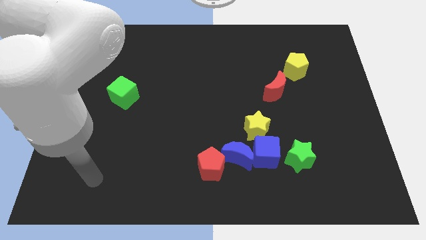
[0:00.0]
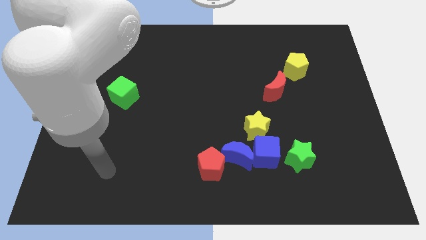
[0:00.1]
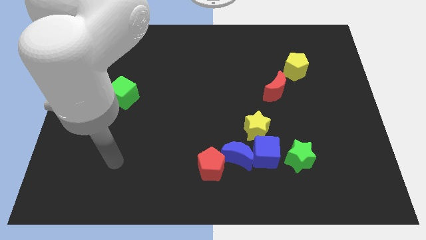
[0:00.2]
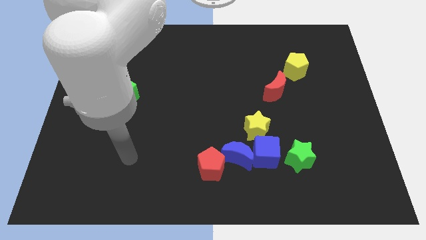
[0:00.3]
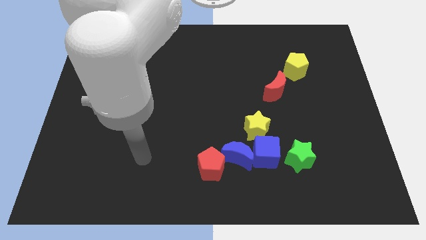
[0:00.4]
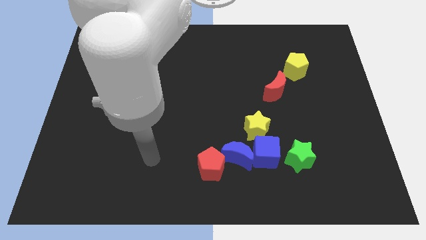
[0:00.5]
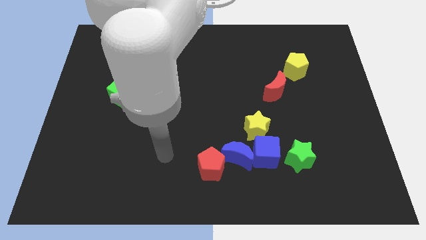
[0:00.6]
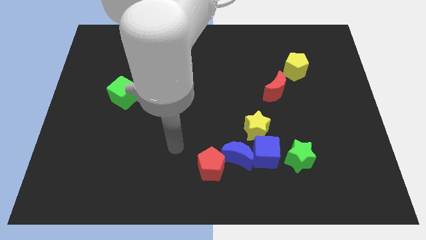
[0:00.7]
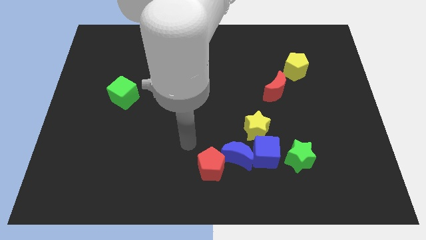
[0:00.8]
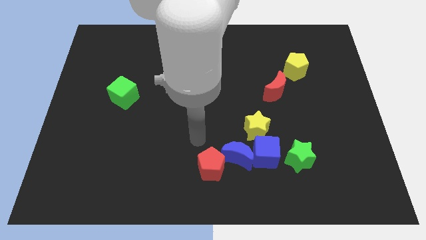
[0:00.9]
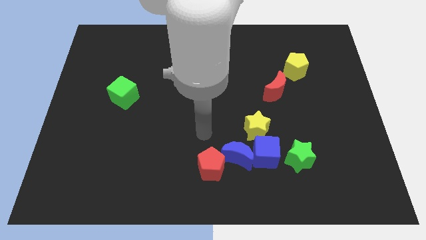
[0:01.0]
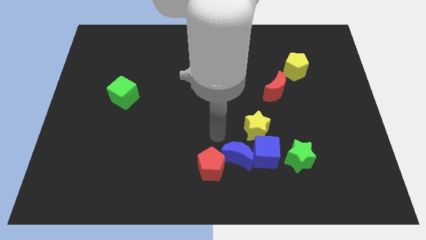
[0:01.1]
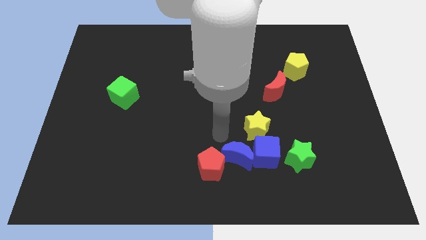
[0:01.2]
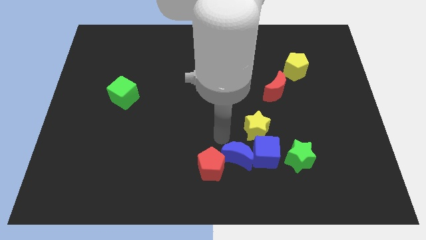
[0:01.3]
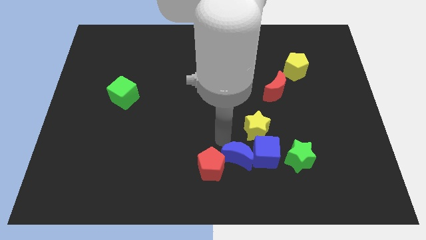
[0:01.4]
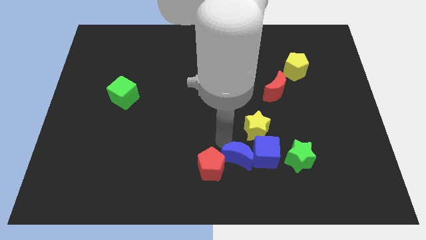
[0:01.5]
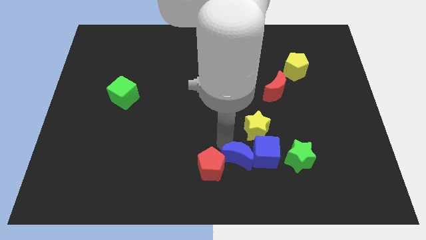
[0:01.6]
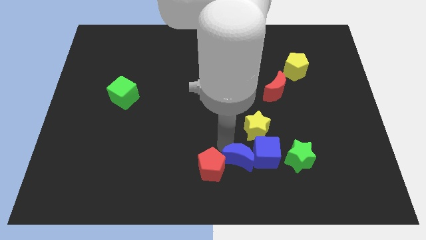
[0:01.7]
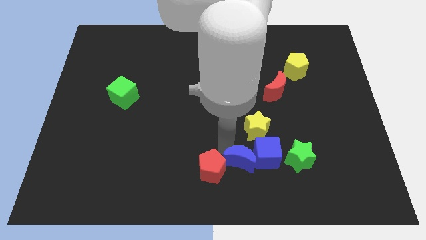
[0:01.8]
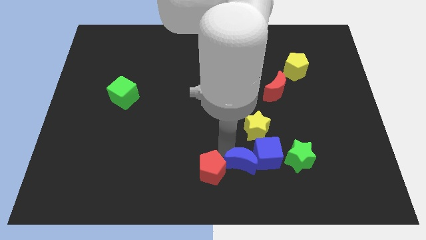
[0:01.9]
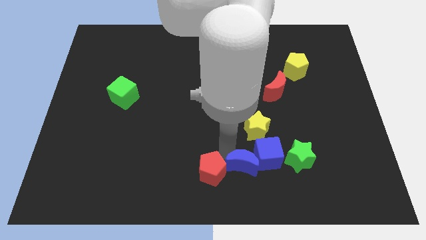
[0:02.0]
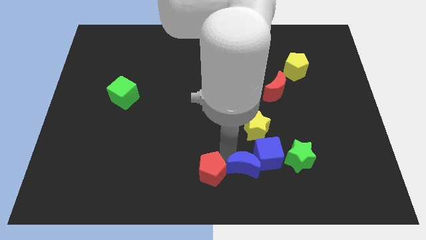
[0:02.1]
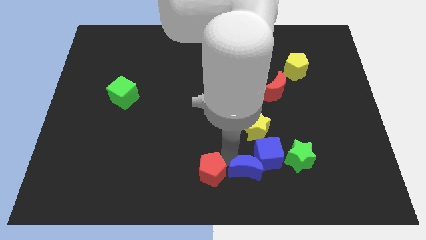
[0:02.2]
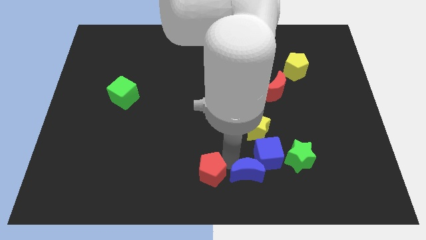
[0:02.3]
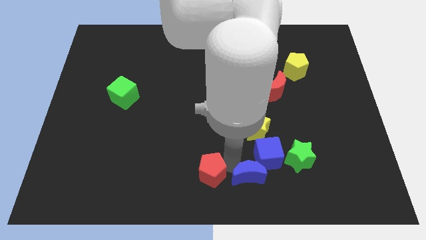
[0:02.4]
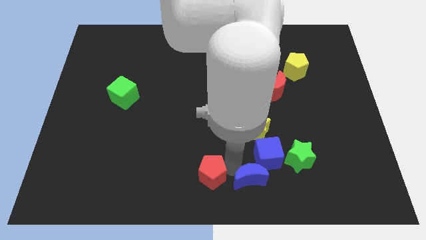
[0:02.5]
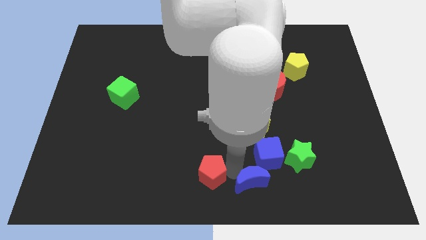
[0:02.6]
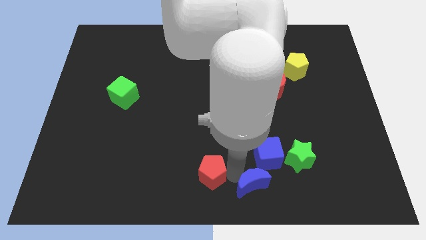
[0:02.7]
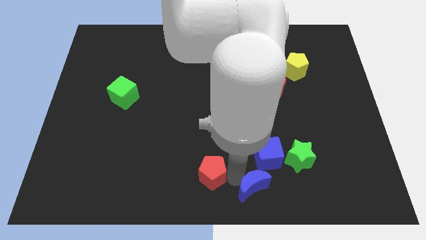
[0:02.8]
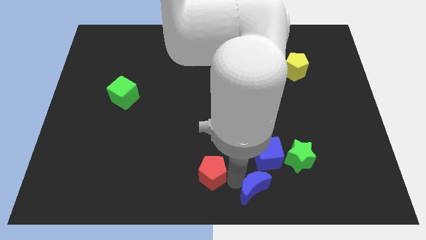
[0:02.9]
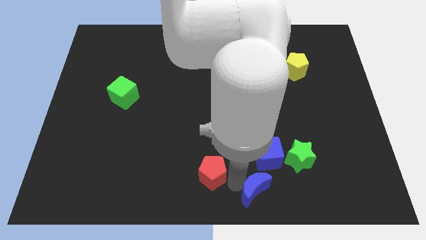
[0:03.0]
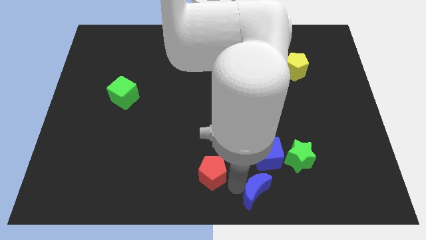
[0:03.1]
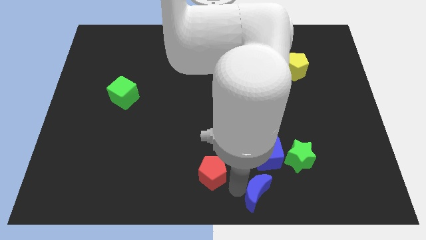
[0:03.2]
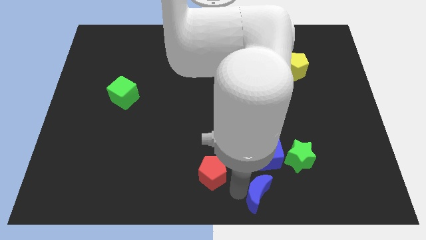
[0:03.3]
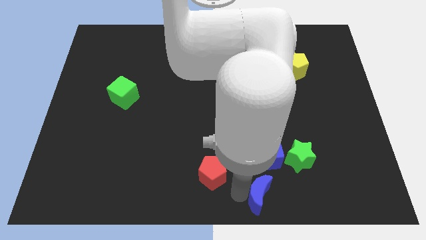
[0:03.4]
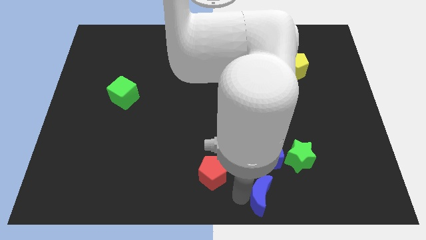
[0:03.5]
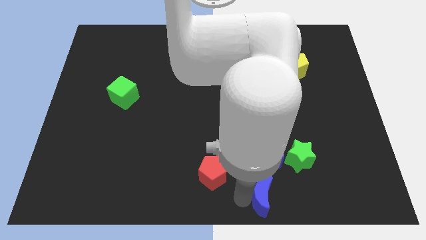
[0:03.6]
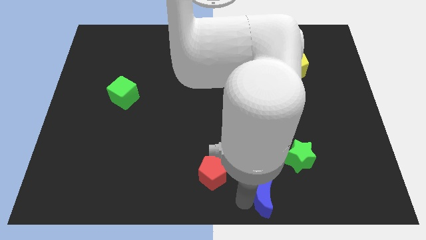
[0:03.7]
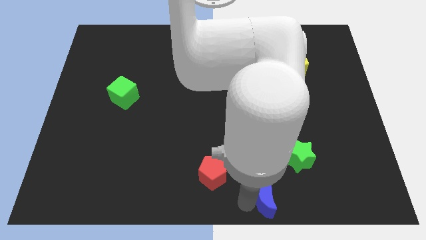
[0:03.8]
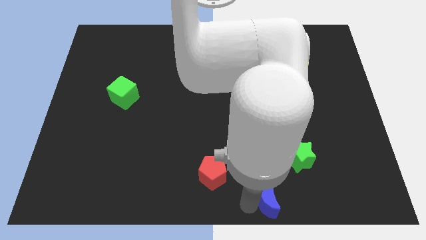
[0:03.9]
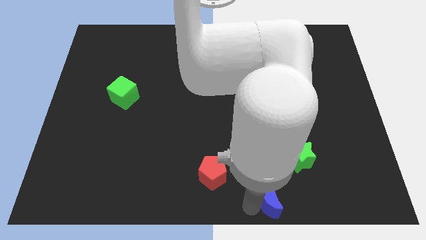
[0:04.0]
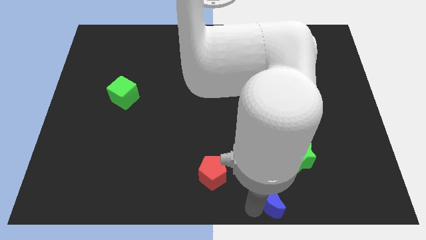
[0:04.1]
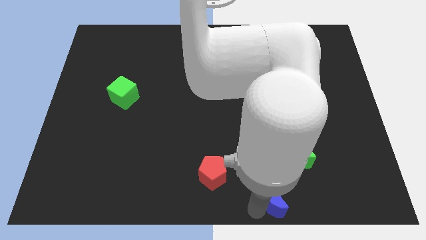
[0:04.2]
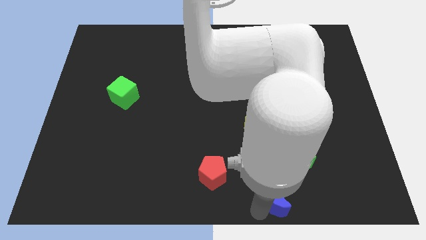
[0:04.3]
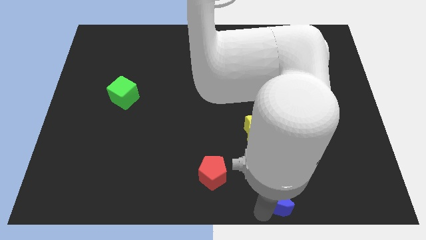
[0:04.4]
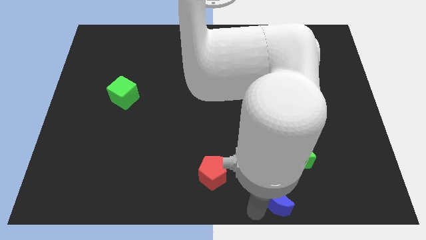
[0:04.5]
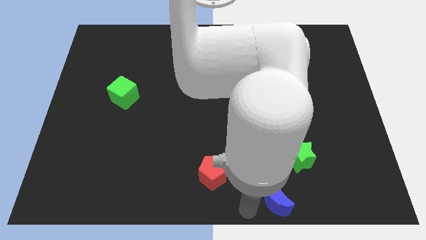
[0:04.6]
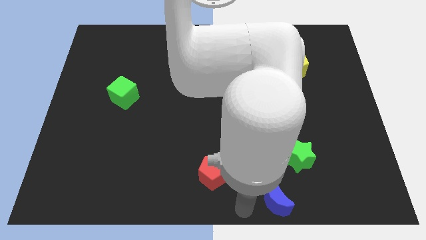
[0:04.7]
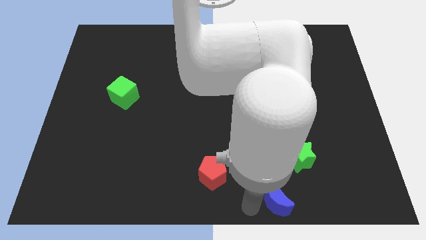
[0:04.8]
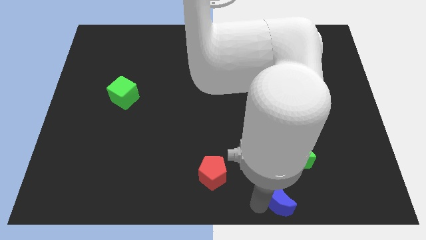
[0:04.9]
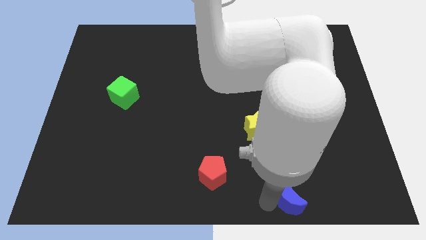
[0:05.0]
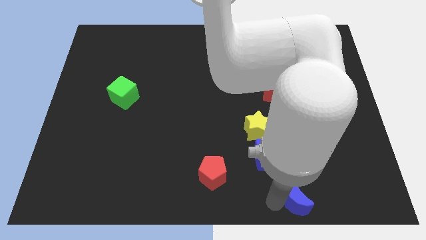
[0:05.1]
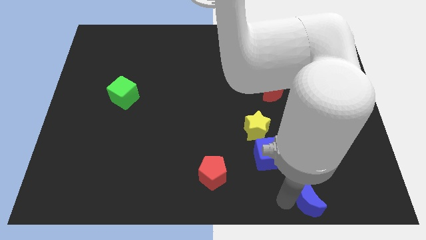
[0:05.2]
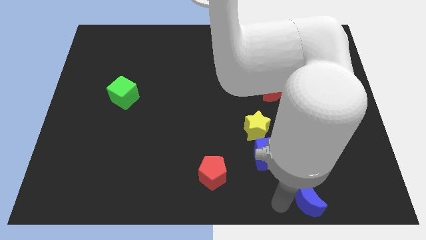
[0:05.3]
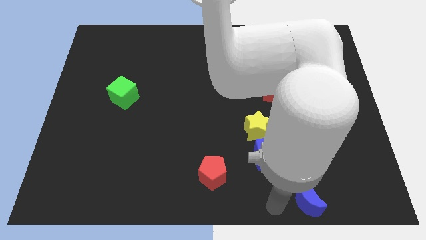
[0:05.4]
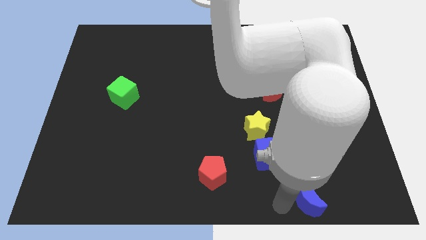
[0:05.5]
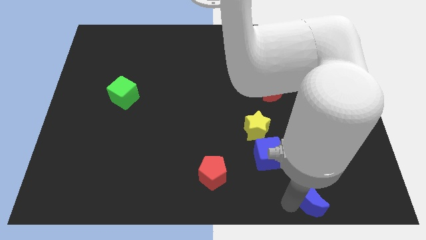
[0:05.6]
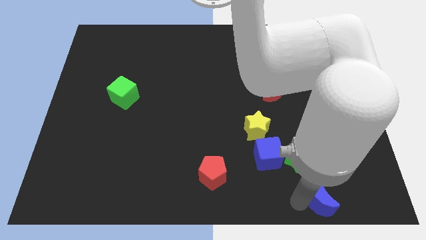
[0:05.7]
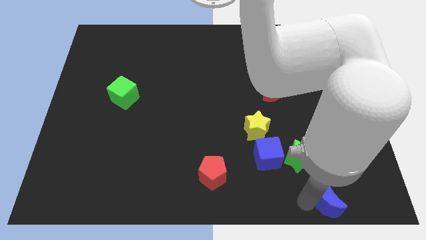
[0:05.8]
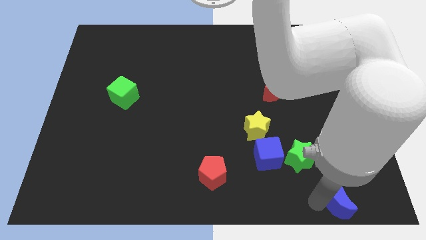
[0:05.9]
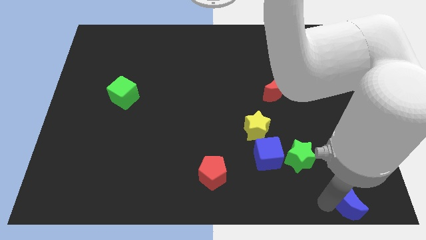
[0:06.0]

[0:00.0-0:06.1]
move the blue moon to the lower right corner
